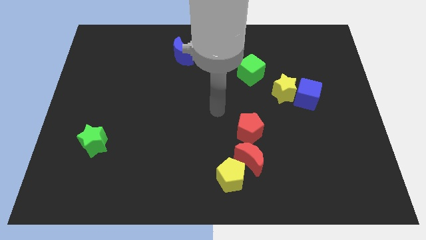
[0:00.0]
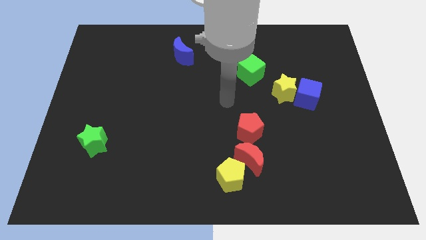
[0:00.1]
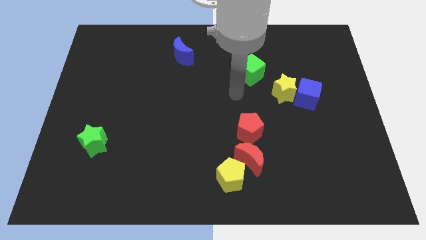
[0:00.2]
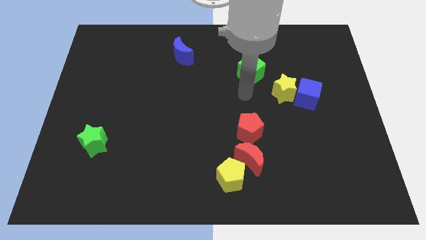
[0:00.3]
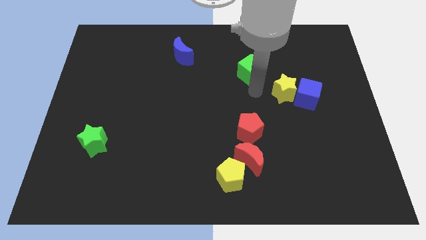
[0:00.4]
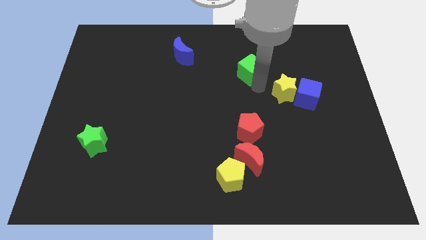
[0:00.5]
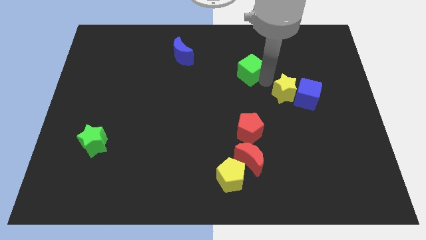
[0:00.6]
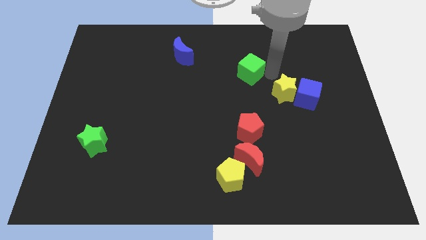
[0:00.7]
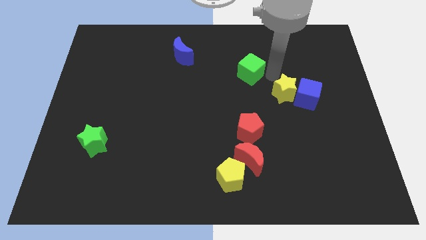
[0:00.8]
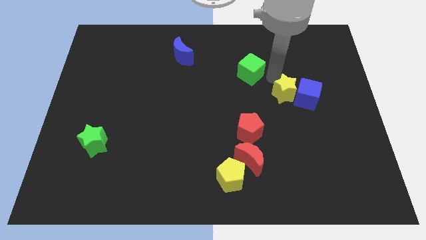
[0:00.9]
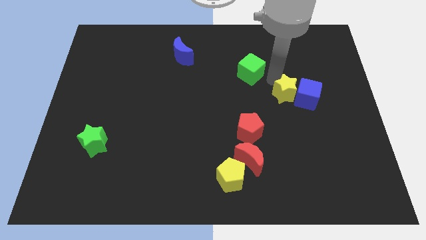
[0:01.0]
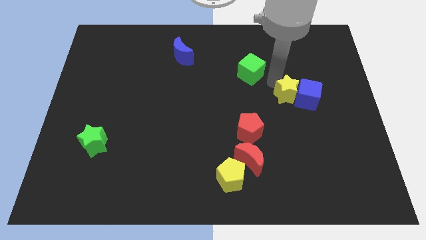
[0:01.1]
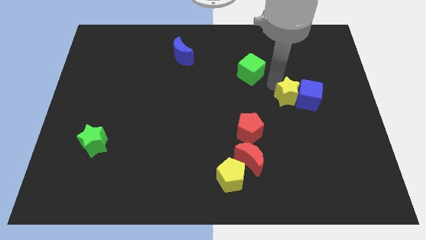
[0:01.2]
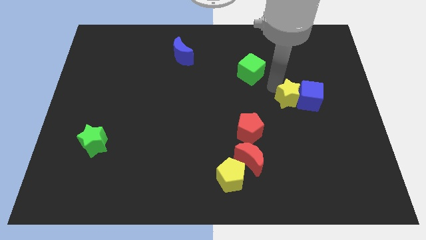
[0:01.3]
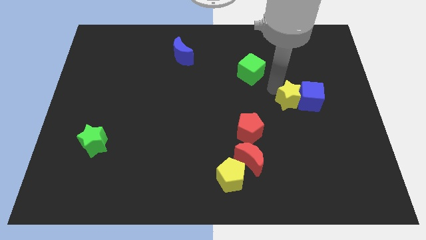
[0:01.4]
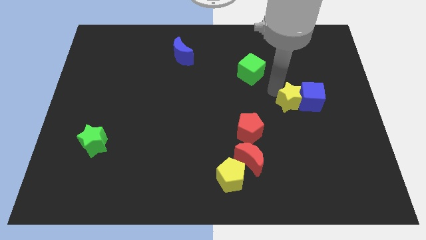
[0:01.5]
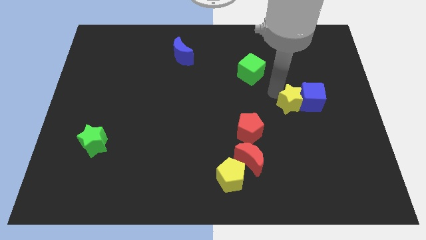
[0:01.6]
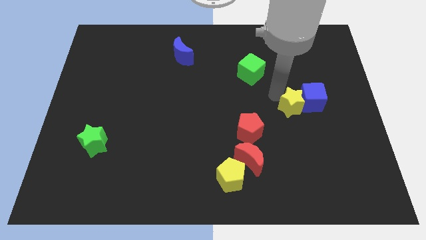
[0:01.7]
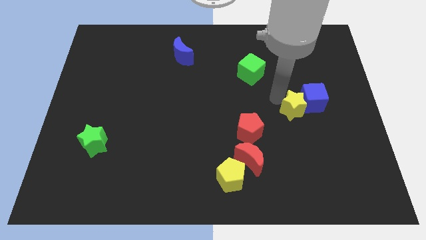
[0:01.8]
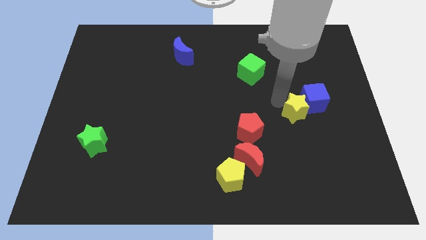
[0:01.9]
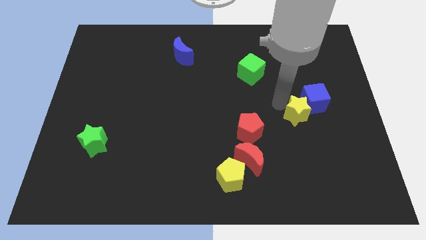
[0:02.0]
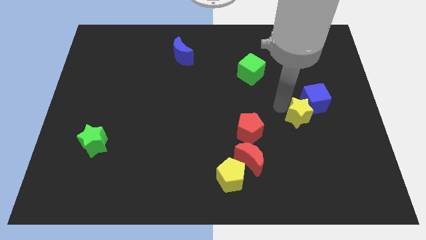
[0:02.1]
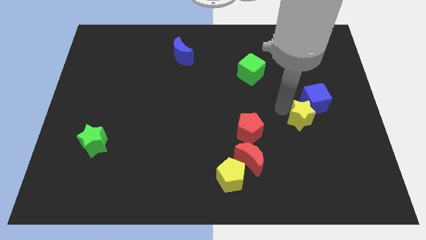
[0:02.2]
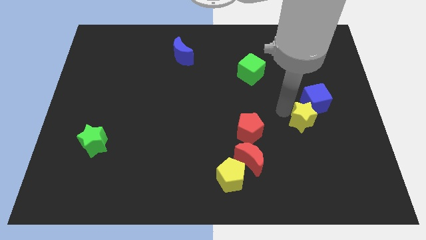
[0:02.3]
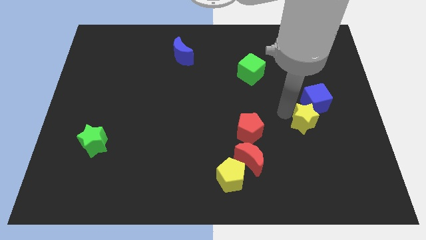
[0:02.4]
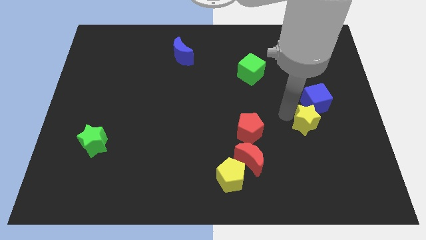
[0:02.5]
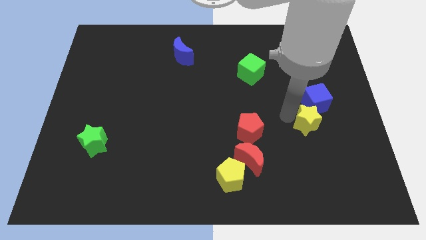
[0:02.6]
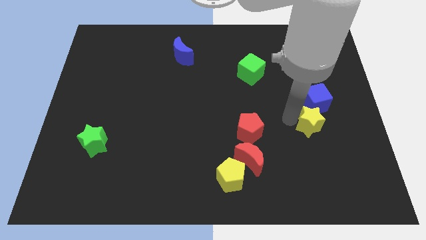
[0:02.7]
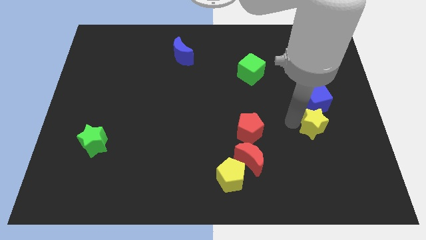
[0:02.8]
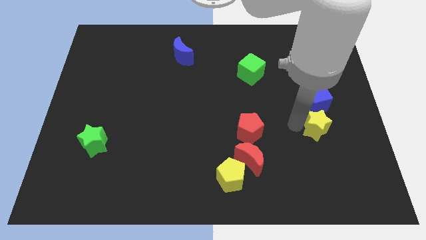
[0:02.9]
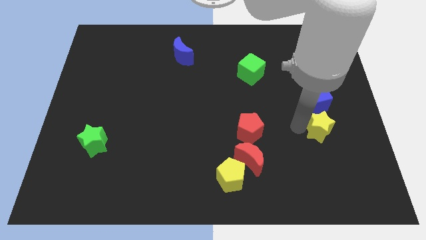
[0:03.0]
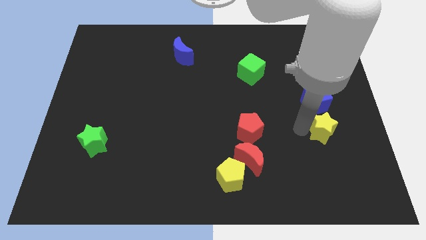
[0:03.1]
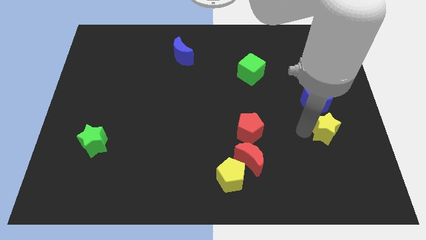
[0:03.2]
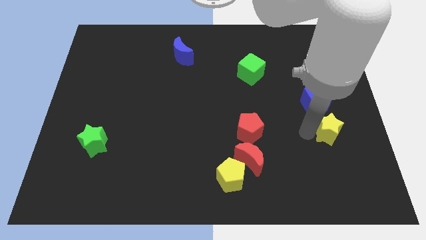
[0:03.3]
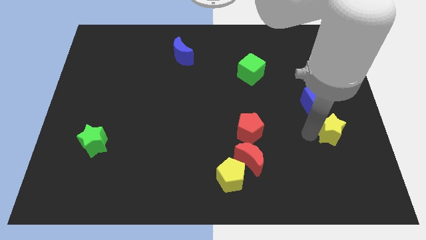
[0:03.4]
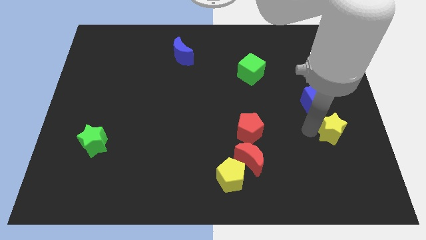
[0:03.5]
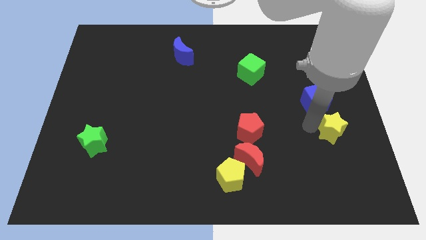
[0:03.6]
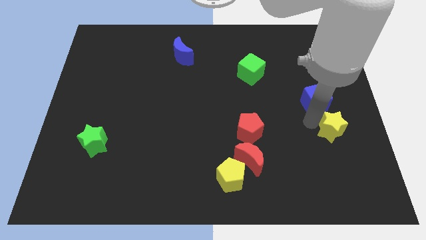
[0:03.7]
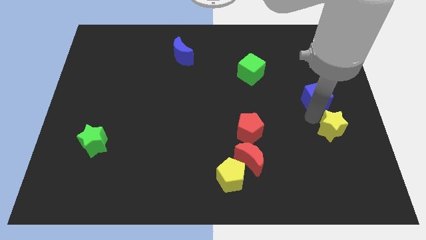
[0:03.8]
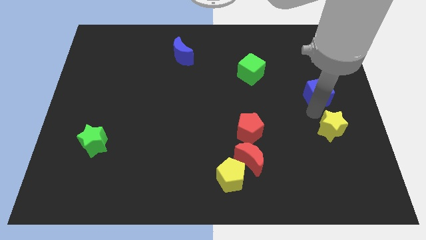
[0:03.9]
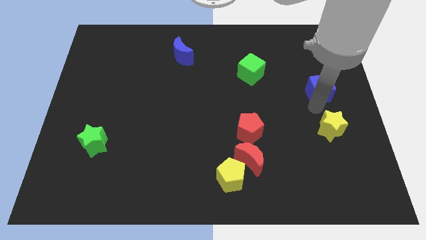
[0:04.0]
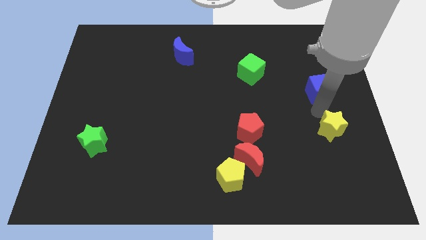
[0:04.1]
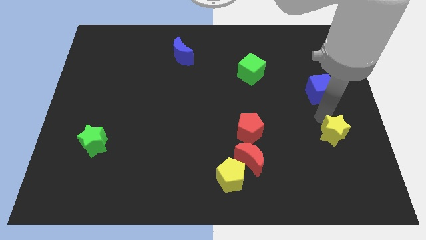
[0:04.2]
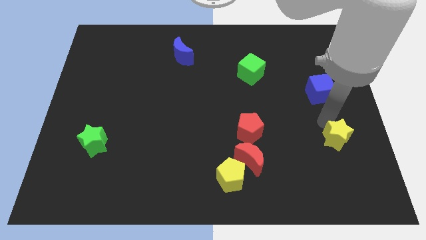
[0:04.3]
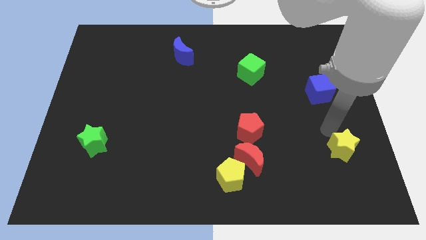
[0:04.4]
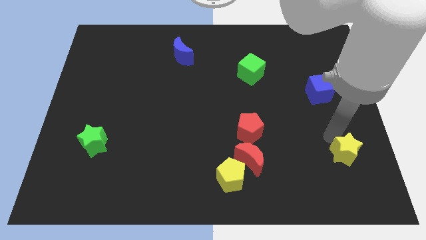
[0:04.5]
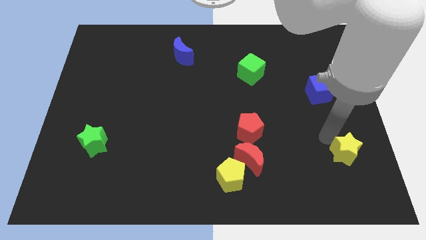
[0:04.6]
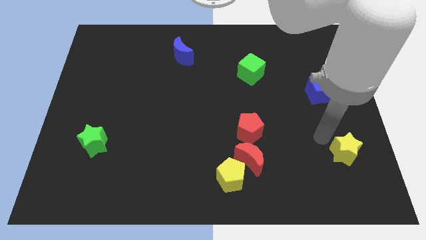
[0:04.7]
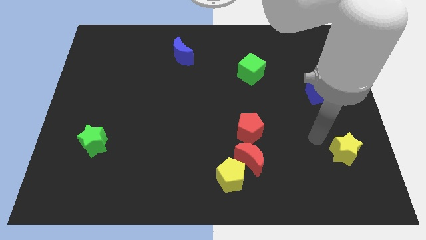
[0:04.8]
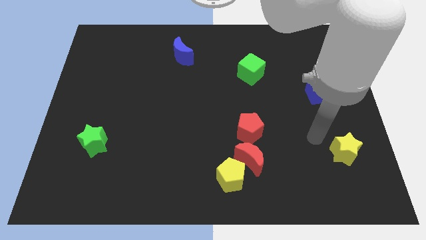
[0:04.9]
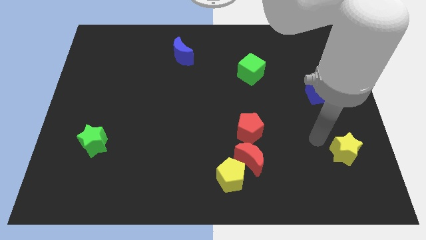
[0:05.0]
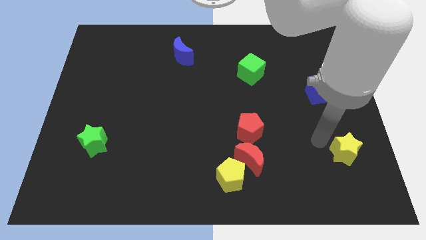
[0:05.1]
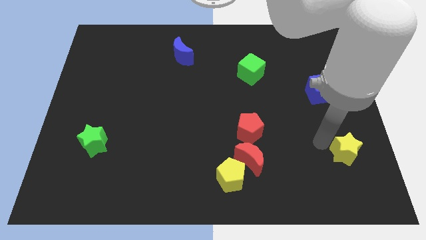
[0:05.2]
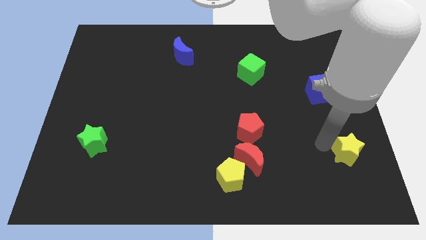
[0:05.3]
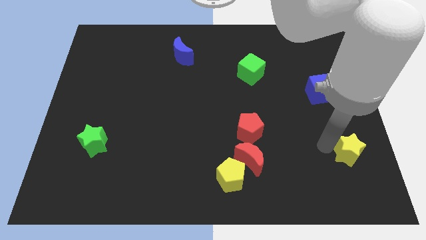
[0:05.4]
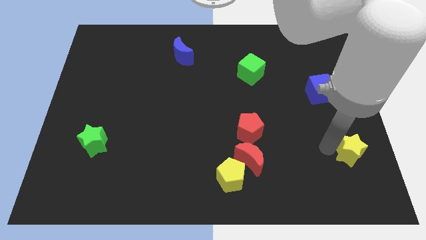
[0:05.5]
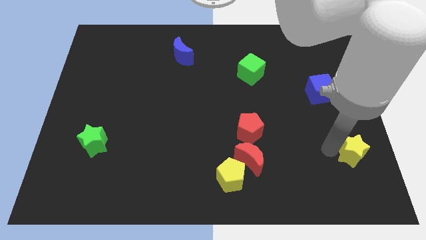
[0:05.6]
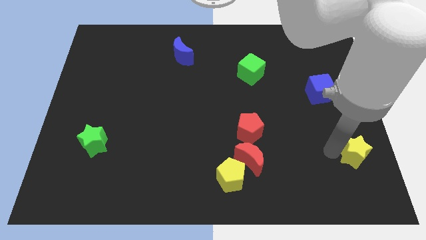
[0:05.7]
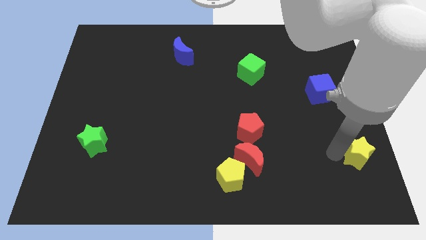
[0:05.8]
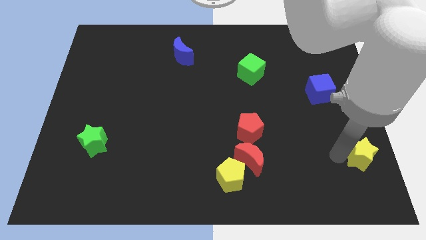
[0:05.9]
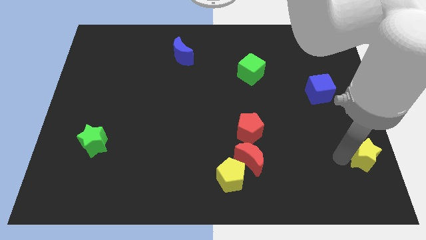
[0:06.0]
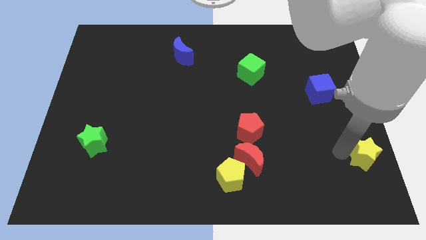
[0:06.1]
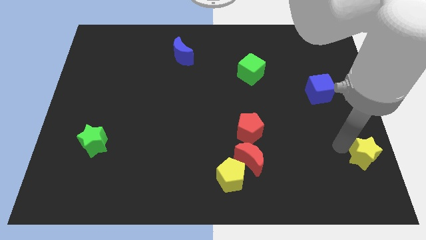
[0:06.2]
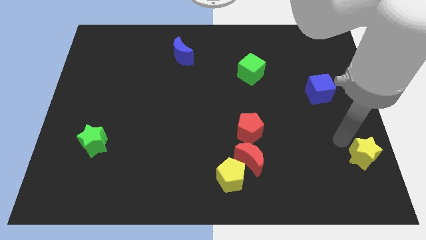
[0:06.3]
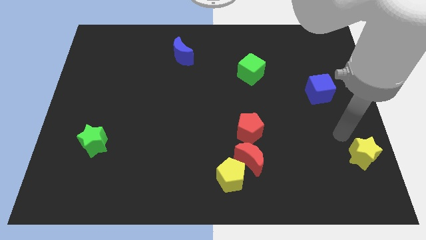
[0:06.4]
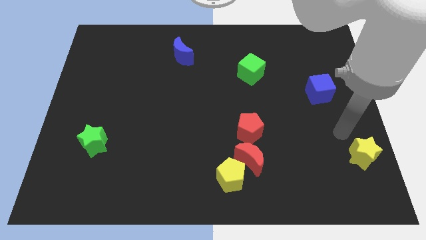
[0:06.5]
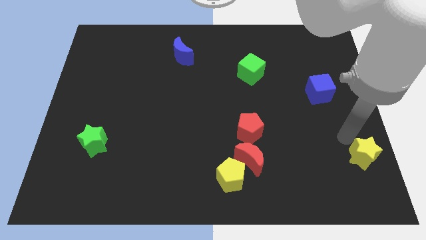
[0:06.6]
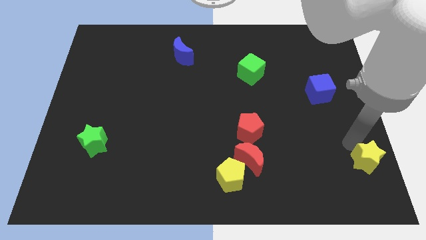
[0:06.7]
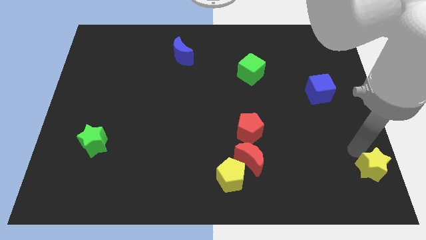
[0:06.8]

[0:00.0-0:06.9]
put the yellow star to the bottom right of the board

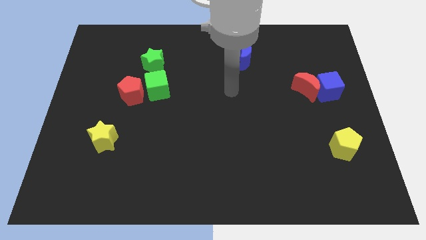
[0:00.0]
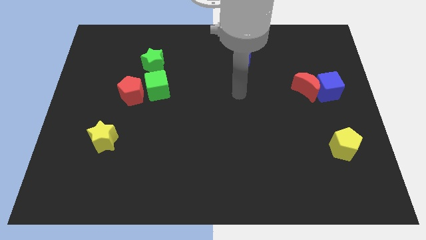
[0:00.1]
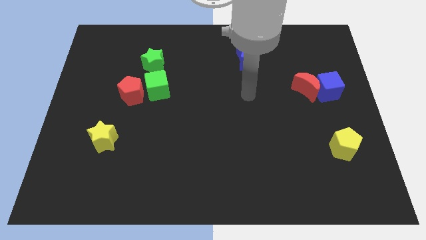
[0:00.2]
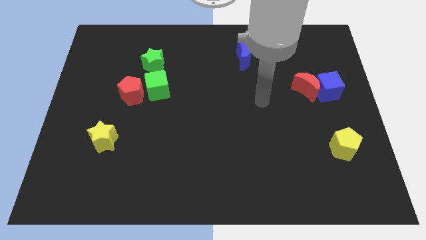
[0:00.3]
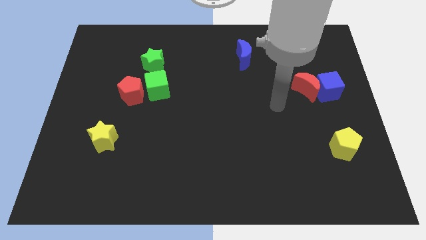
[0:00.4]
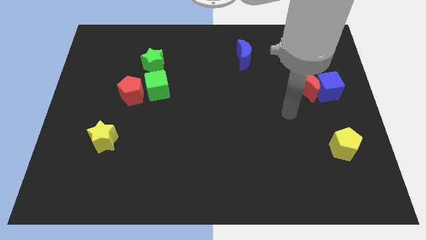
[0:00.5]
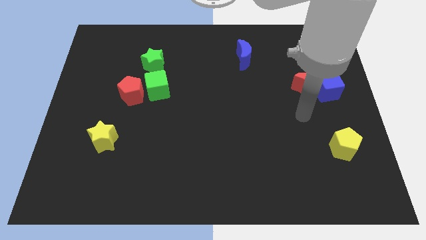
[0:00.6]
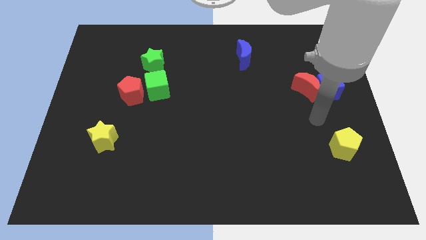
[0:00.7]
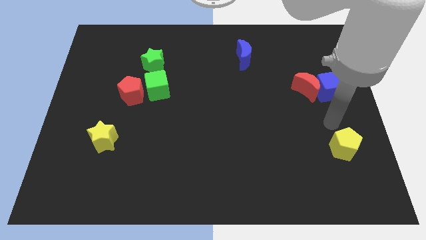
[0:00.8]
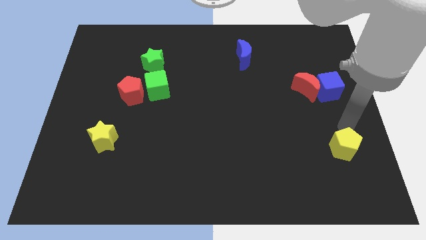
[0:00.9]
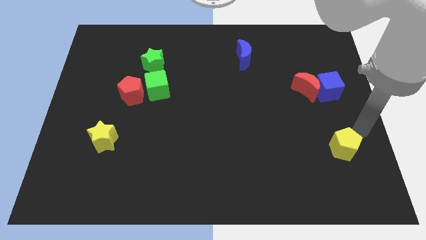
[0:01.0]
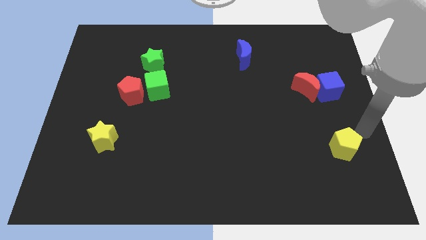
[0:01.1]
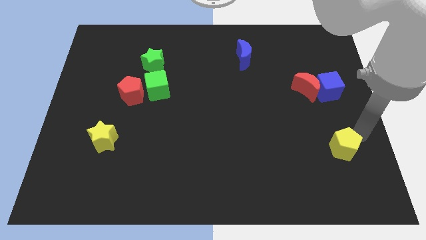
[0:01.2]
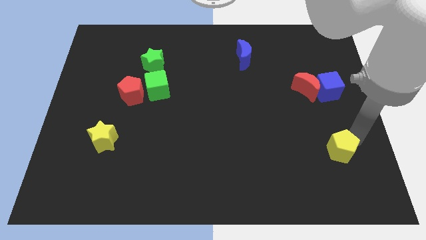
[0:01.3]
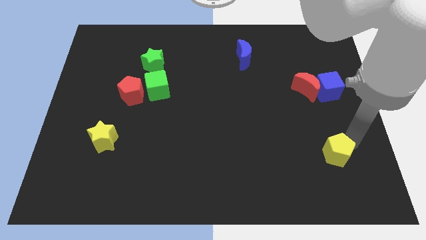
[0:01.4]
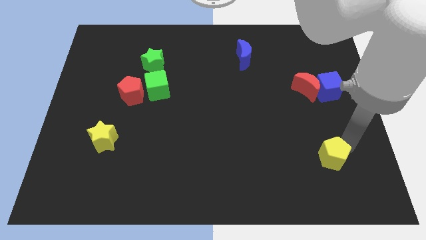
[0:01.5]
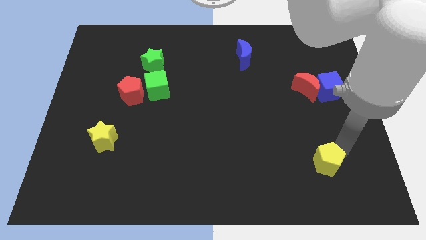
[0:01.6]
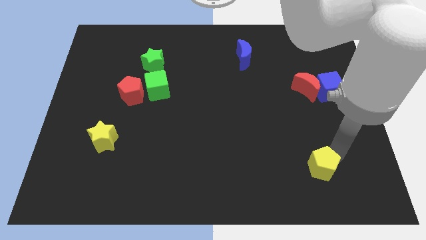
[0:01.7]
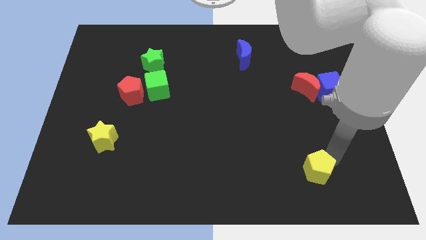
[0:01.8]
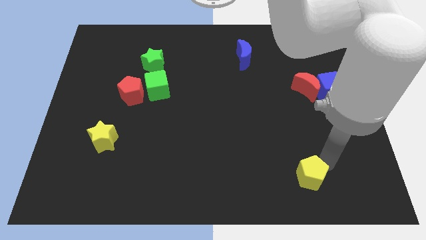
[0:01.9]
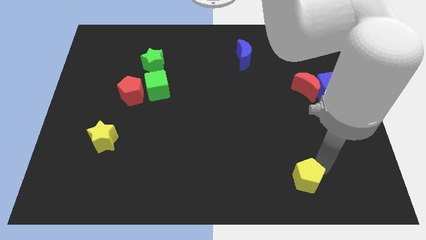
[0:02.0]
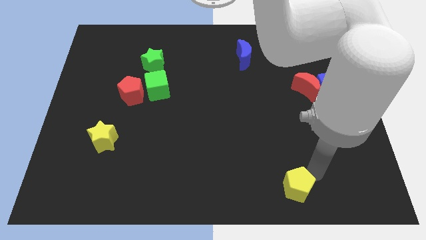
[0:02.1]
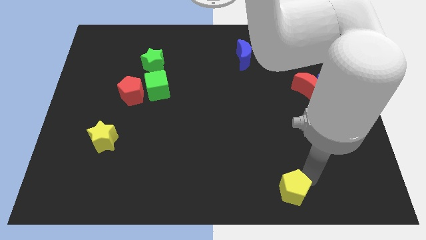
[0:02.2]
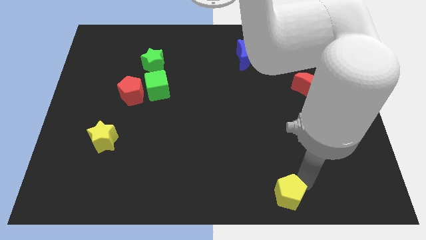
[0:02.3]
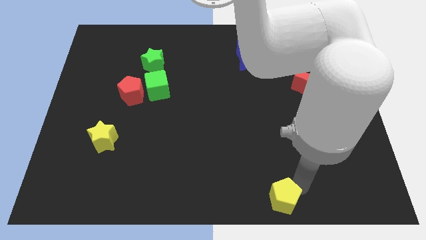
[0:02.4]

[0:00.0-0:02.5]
push the yellow pentagon to the bottom side
